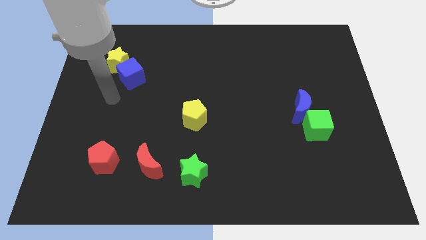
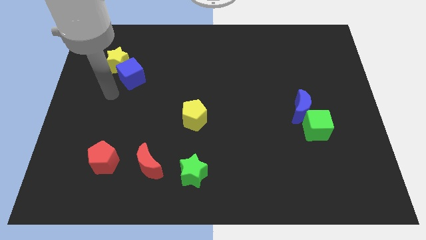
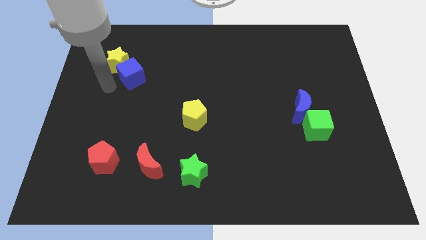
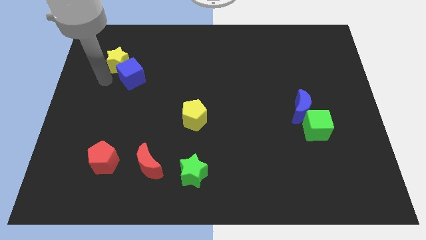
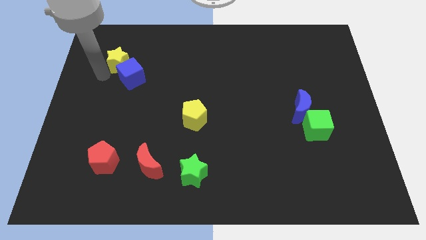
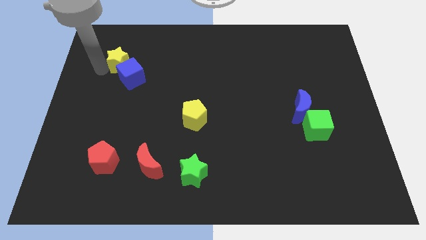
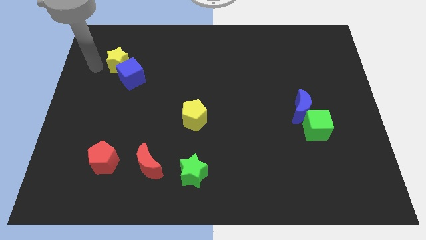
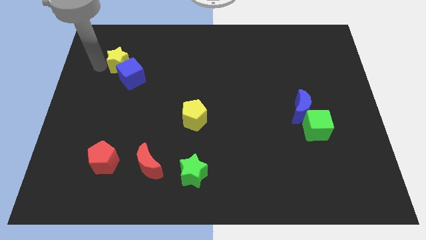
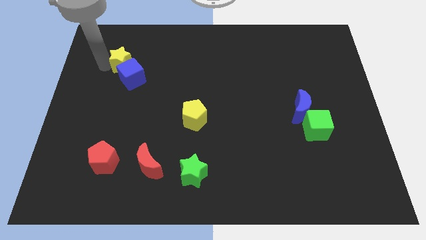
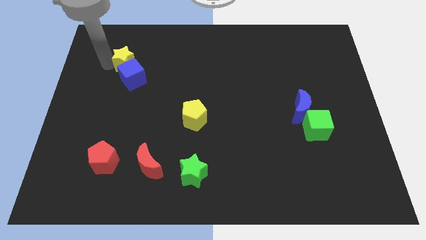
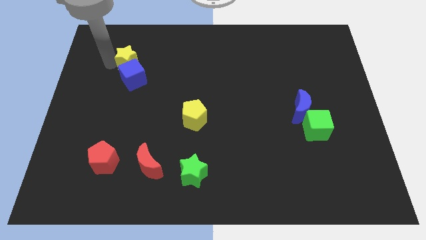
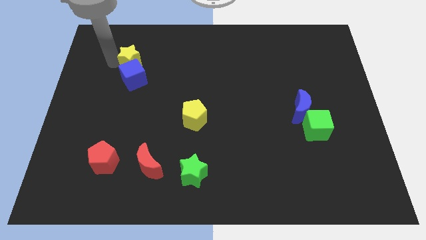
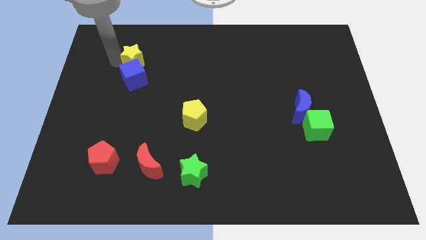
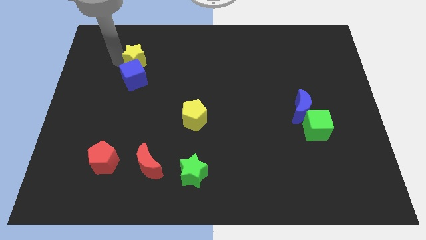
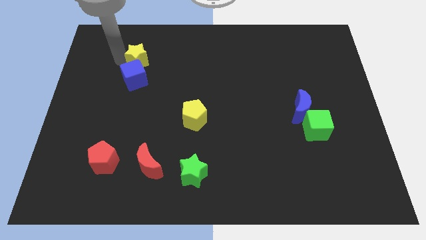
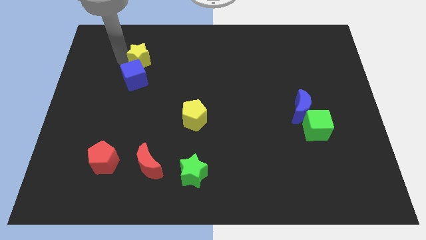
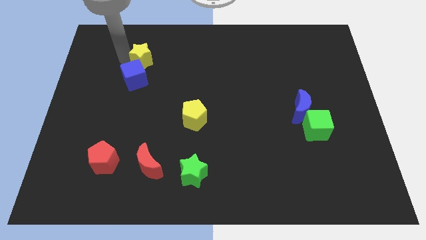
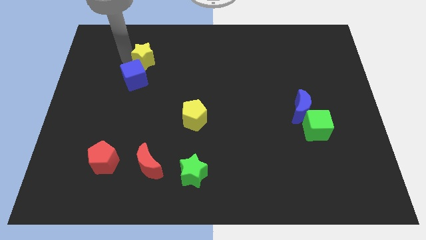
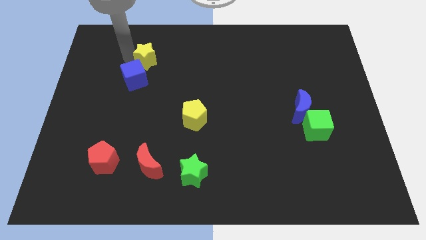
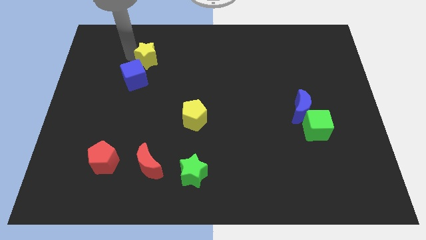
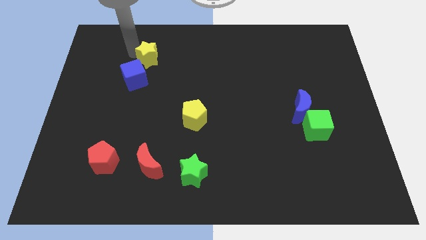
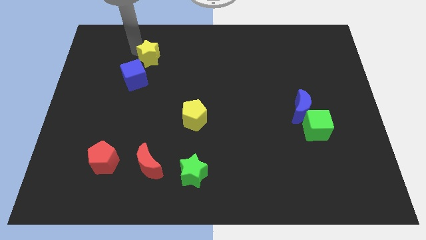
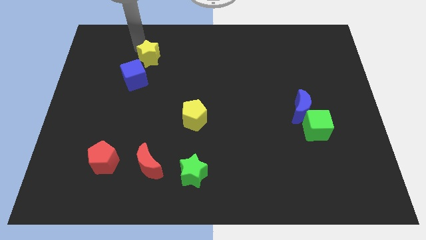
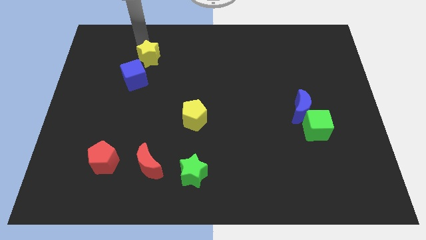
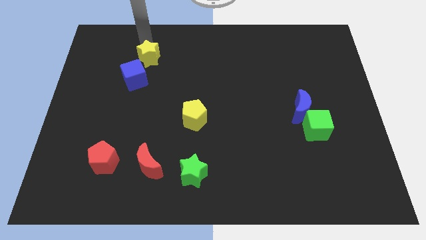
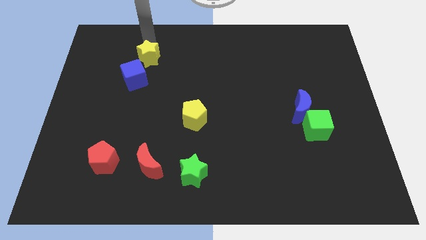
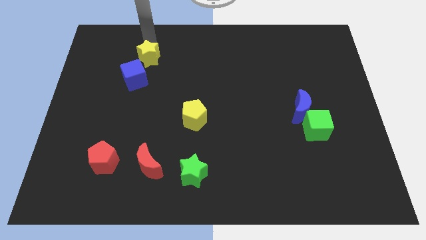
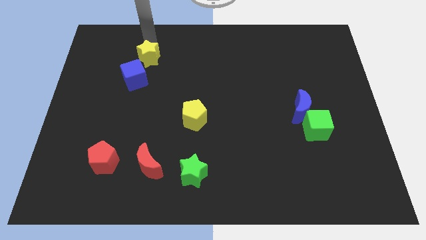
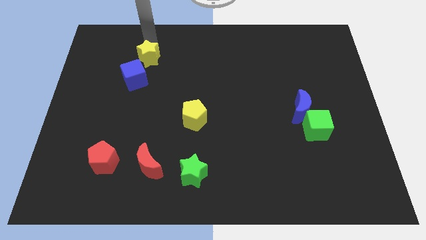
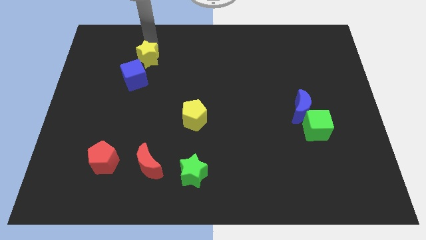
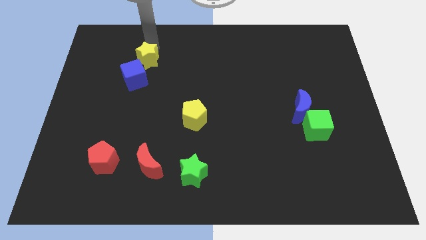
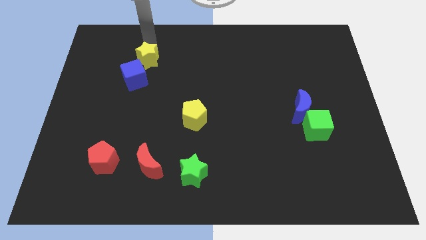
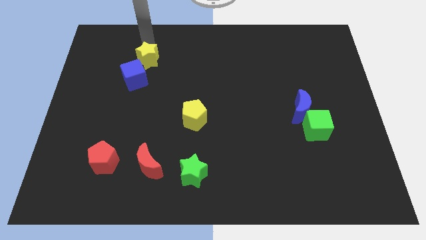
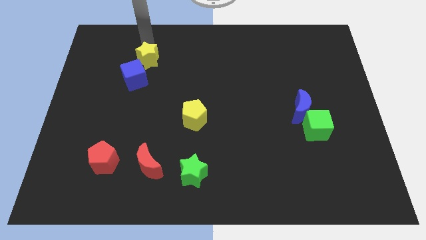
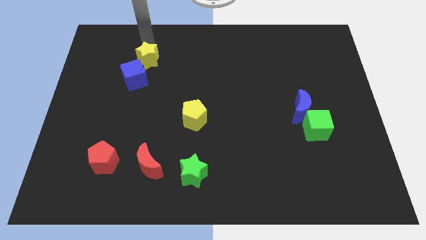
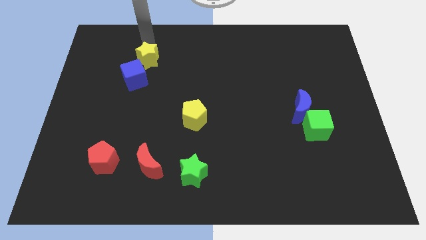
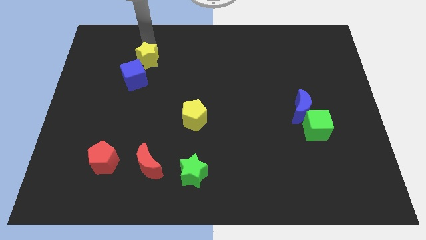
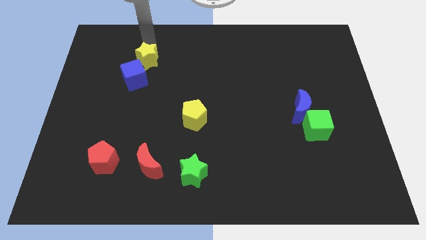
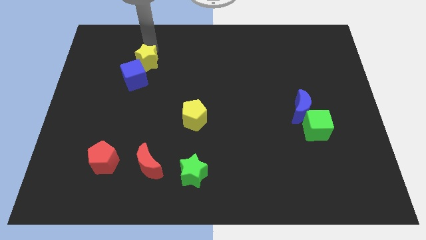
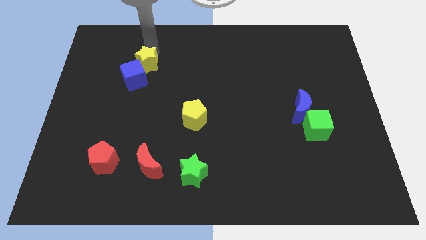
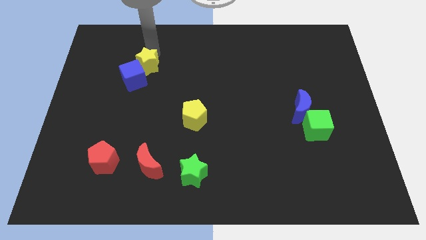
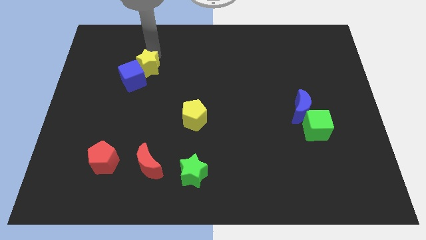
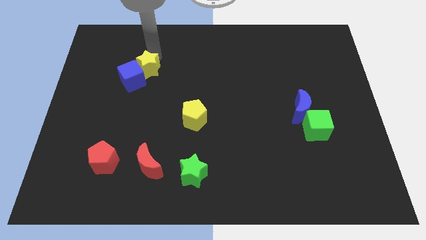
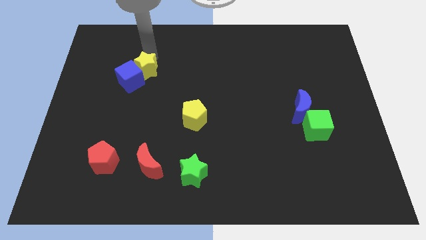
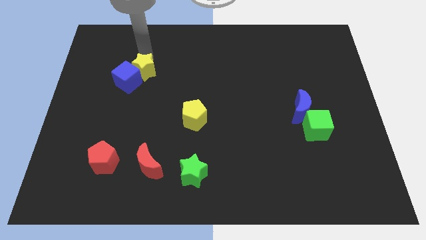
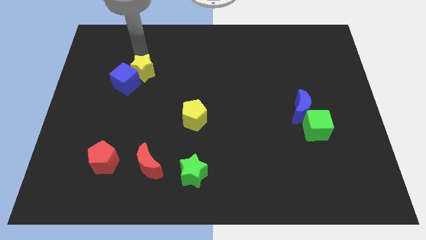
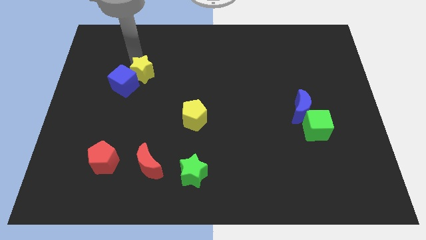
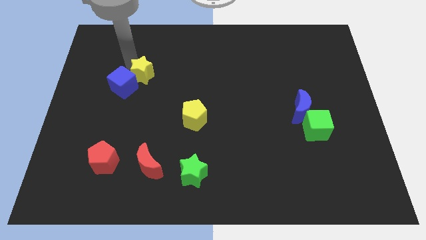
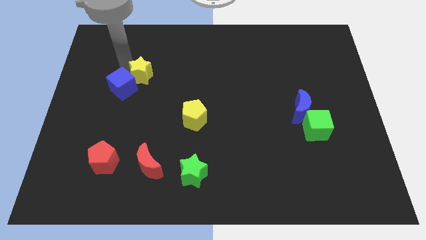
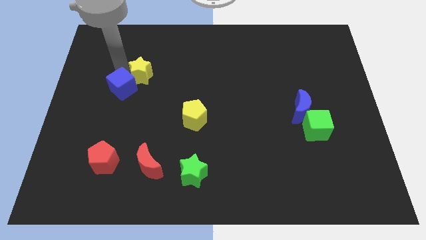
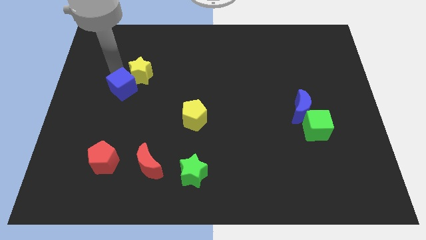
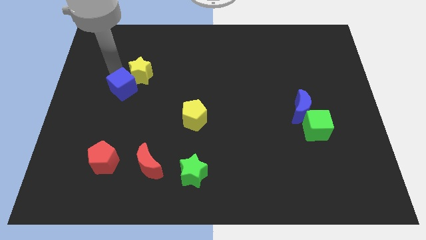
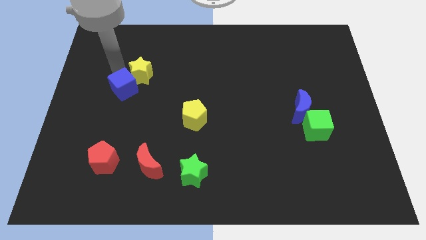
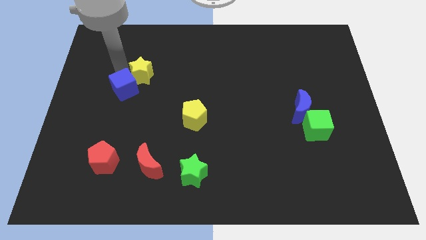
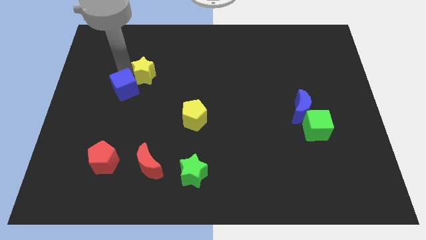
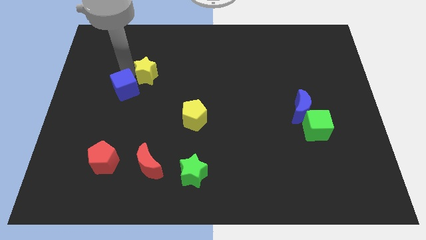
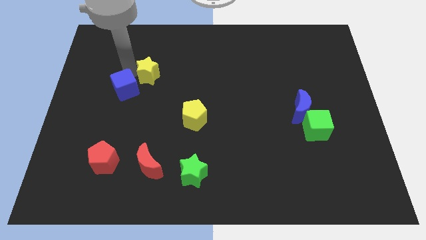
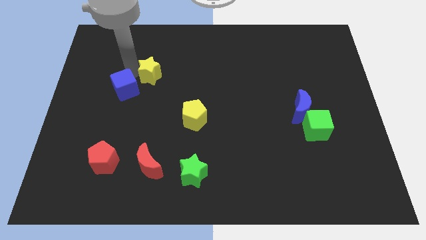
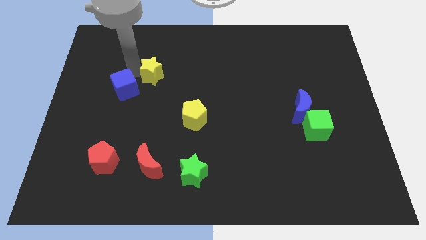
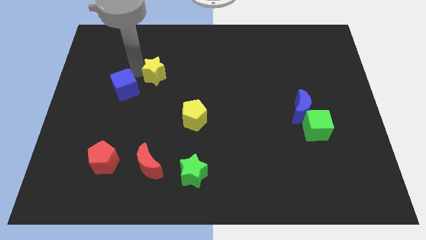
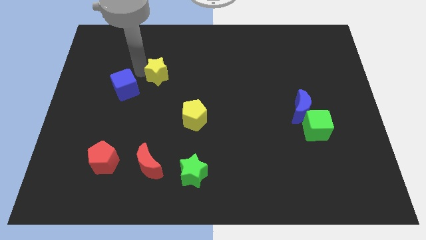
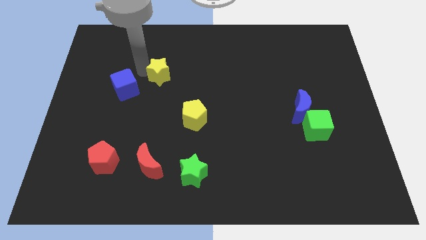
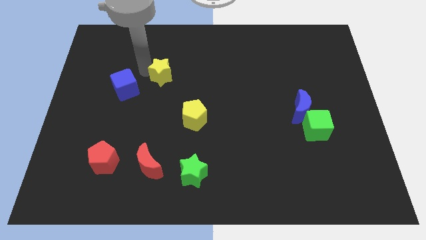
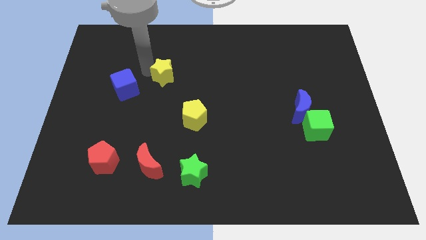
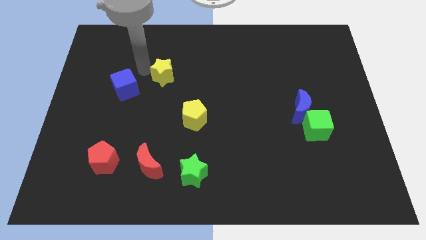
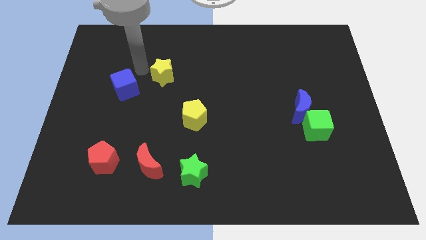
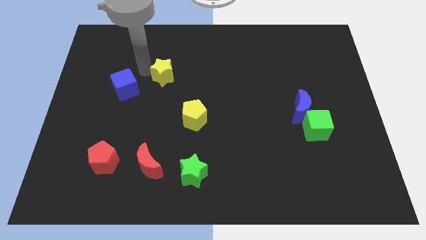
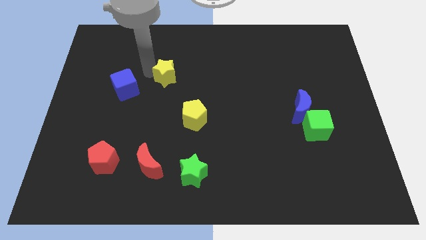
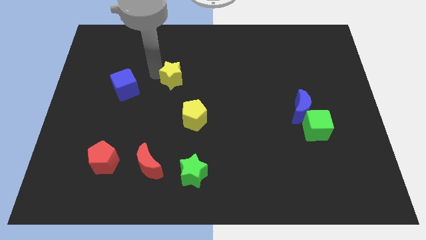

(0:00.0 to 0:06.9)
move the yellow star to the middle
